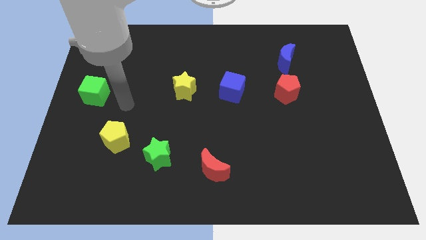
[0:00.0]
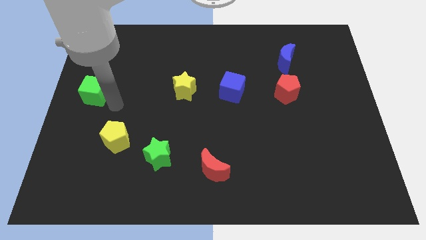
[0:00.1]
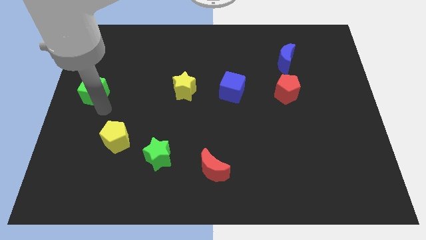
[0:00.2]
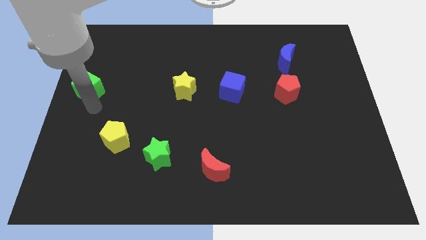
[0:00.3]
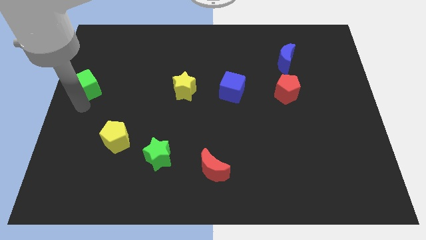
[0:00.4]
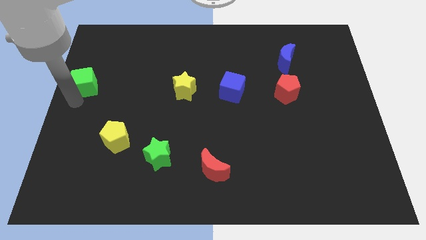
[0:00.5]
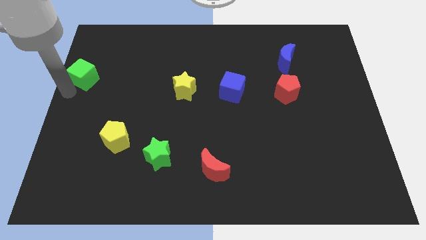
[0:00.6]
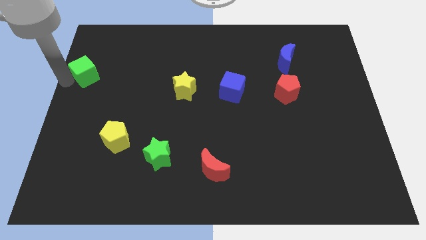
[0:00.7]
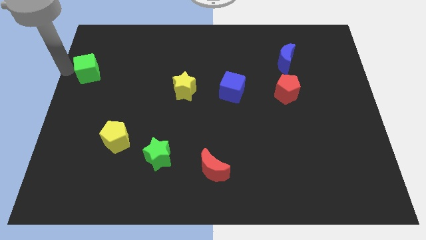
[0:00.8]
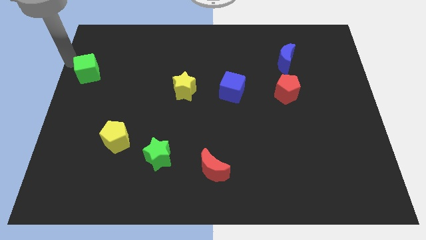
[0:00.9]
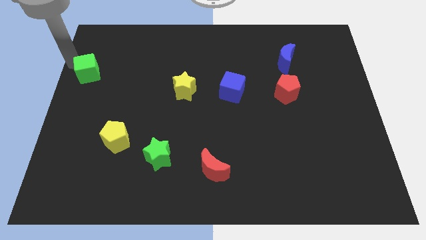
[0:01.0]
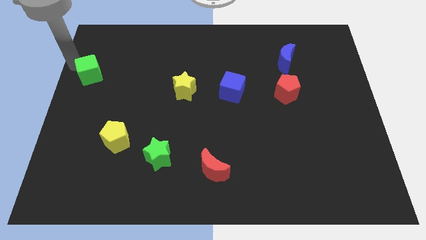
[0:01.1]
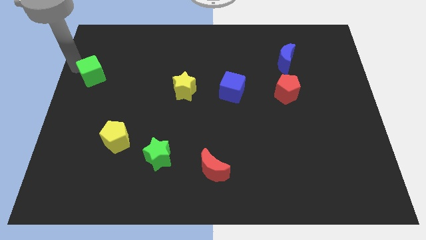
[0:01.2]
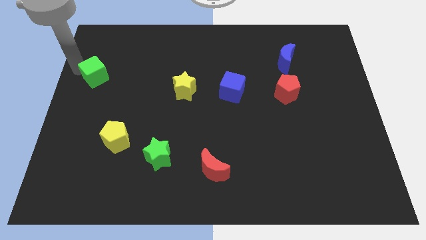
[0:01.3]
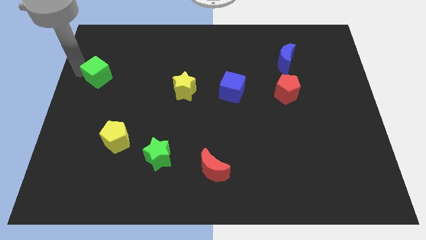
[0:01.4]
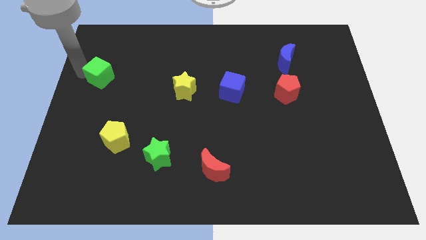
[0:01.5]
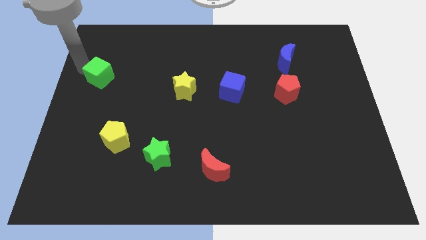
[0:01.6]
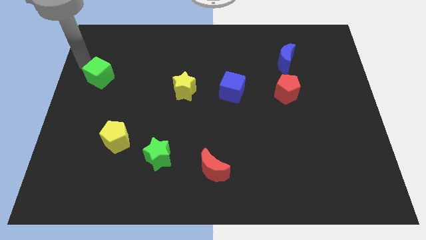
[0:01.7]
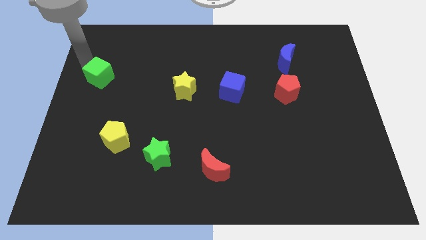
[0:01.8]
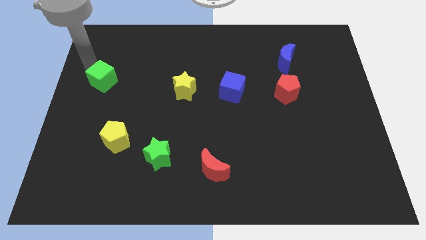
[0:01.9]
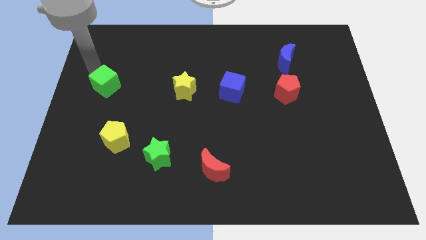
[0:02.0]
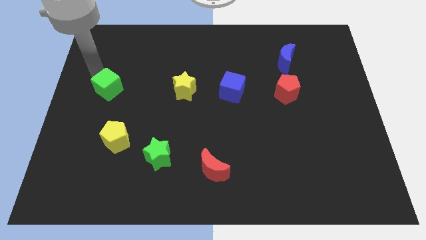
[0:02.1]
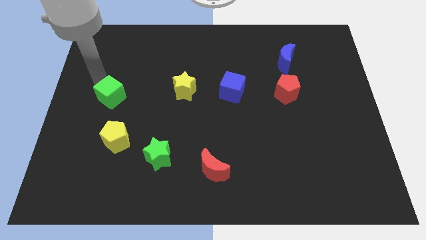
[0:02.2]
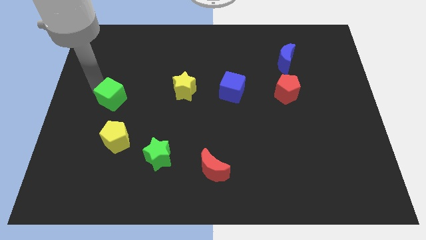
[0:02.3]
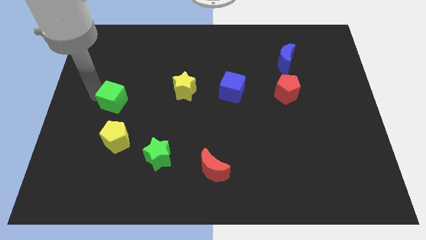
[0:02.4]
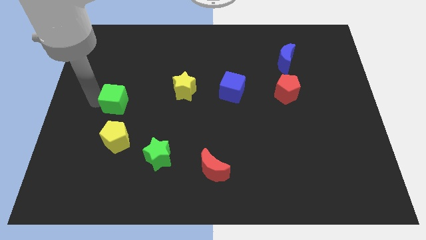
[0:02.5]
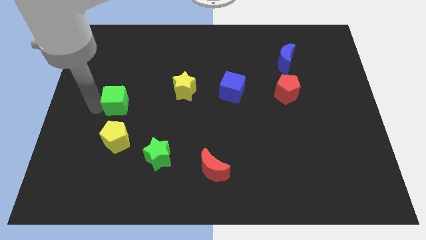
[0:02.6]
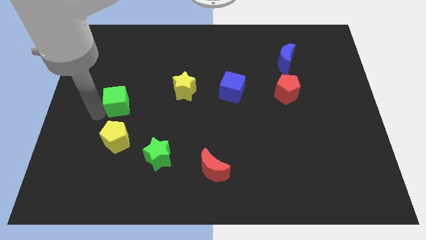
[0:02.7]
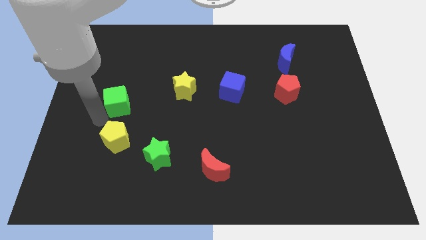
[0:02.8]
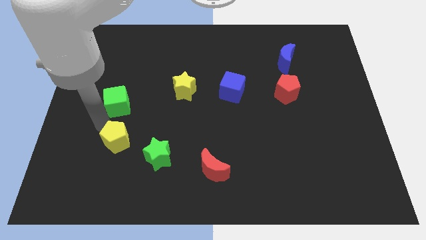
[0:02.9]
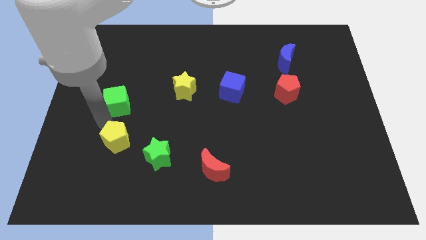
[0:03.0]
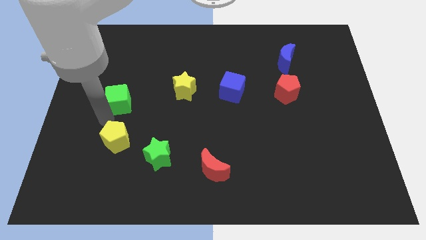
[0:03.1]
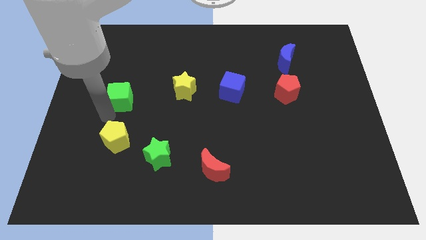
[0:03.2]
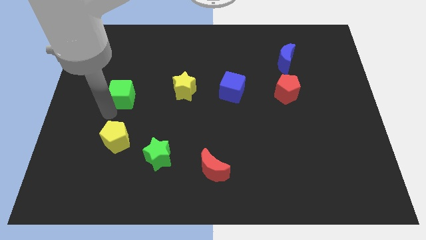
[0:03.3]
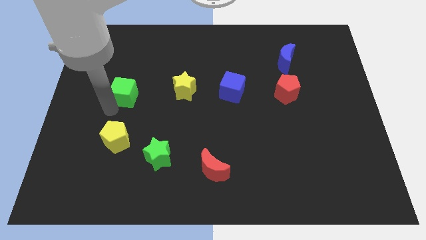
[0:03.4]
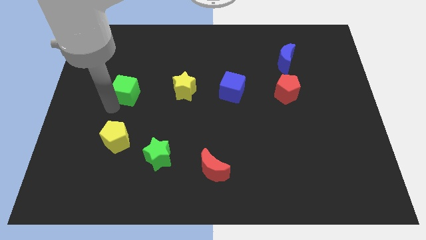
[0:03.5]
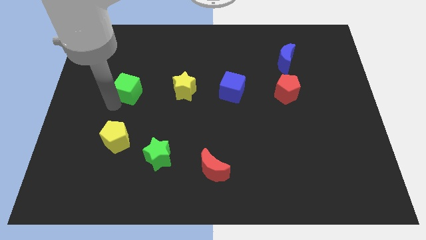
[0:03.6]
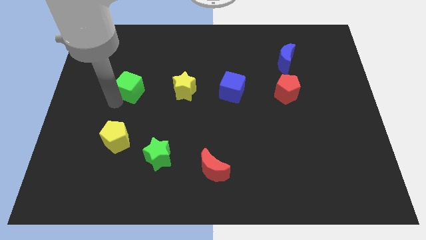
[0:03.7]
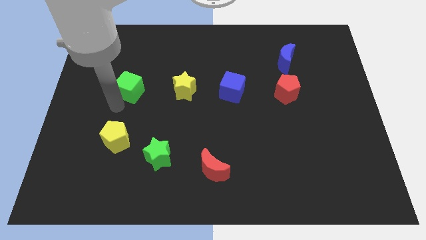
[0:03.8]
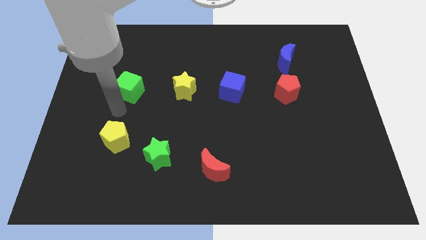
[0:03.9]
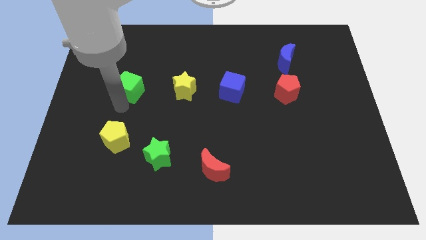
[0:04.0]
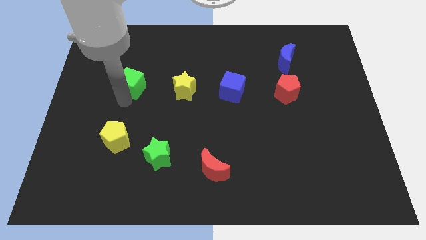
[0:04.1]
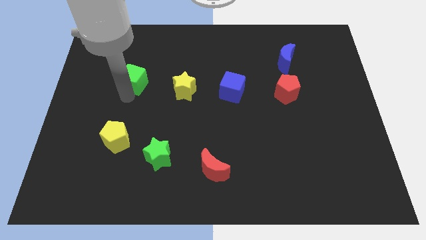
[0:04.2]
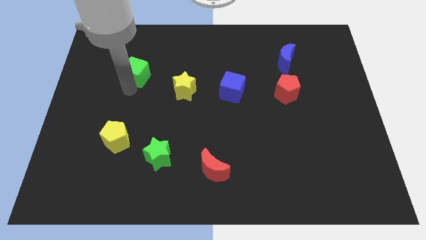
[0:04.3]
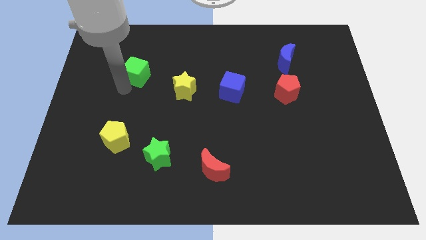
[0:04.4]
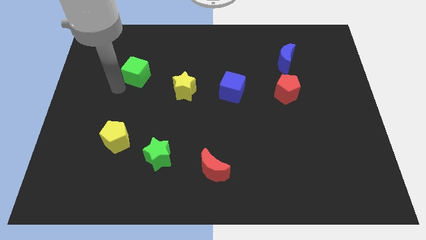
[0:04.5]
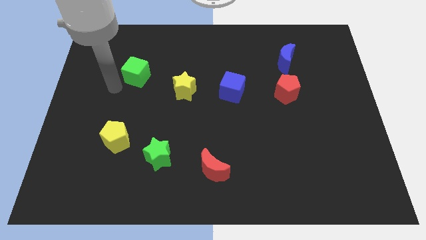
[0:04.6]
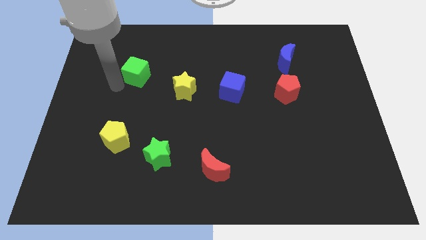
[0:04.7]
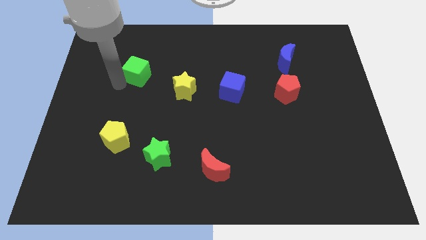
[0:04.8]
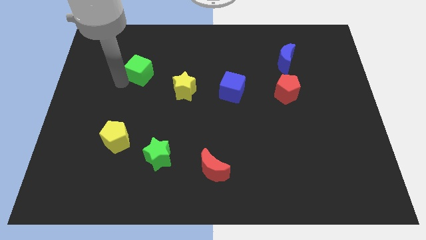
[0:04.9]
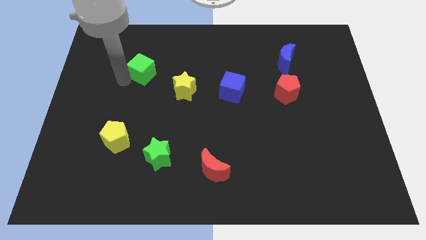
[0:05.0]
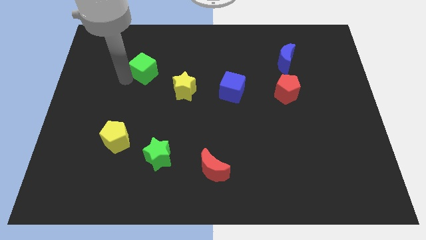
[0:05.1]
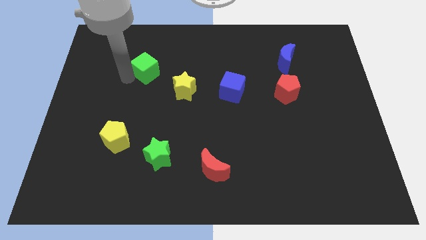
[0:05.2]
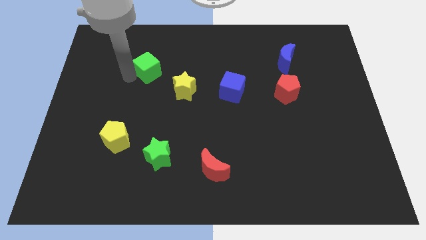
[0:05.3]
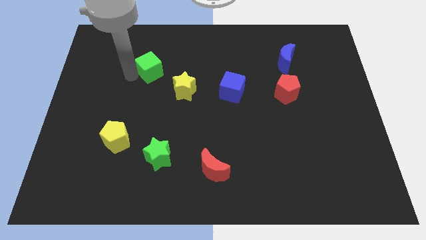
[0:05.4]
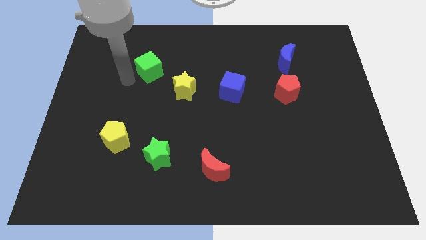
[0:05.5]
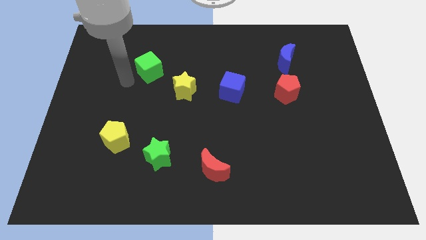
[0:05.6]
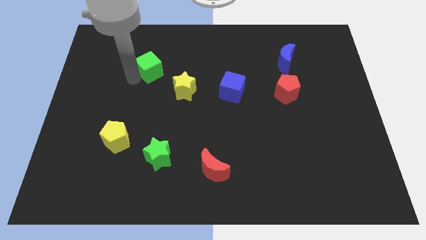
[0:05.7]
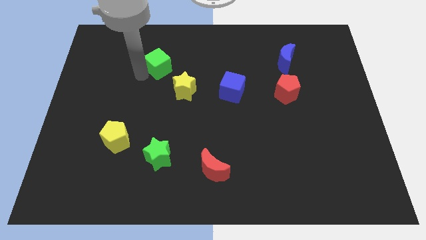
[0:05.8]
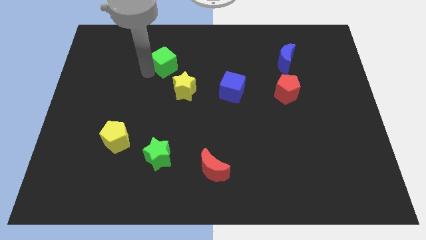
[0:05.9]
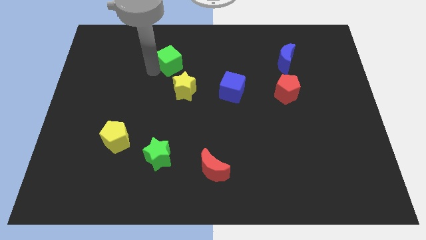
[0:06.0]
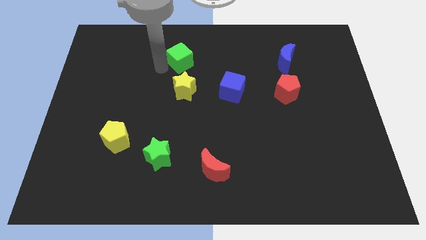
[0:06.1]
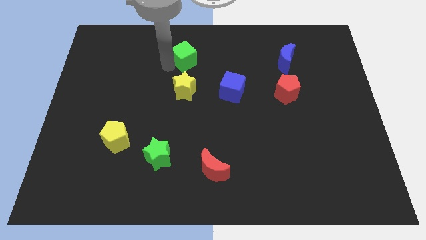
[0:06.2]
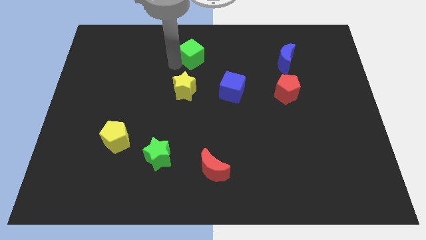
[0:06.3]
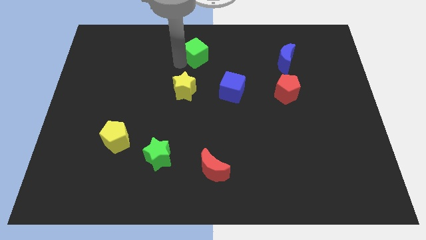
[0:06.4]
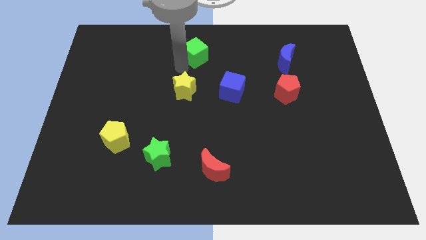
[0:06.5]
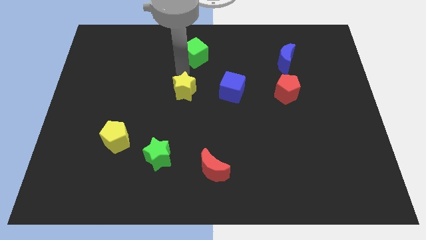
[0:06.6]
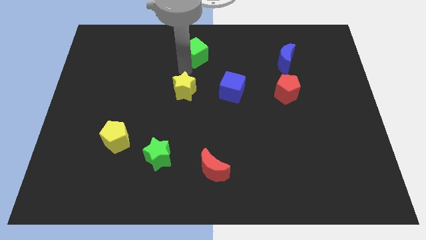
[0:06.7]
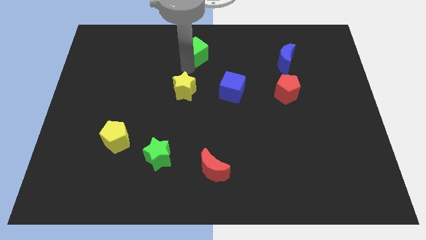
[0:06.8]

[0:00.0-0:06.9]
slide the green cube to the top side
